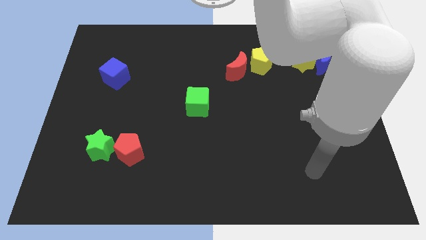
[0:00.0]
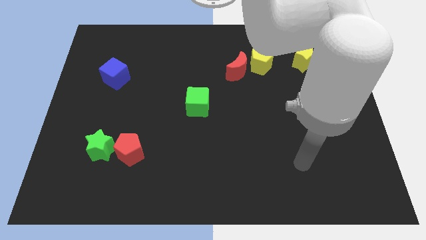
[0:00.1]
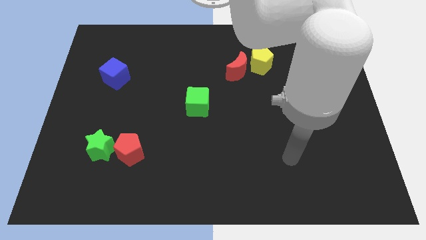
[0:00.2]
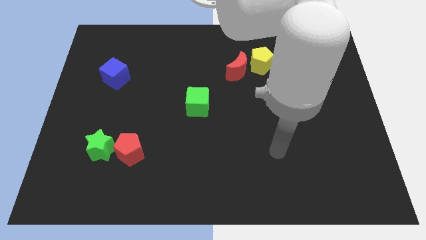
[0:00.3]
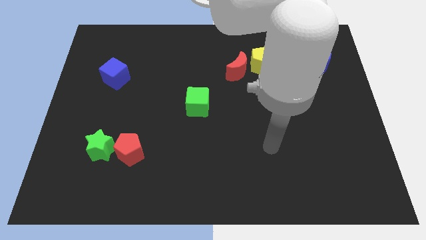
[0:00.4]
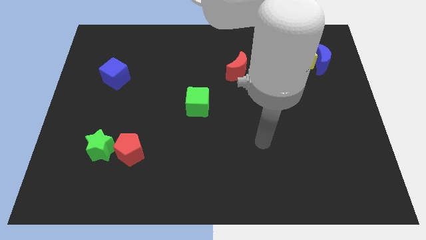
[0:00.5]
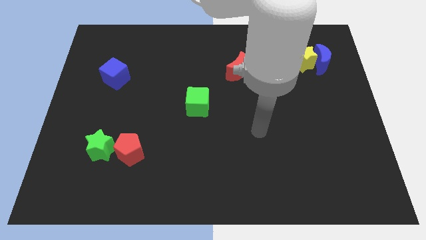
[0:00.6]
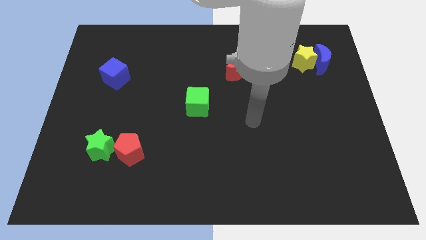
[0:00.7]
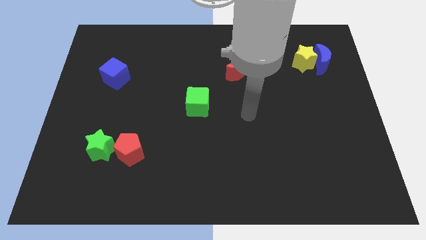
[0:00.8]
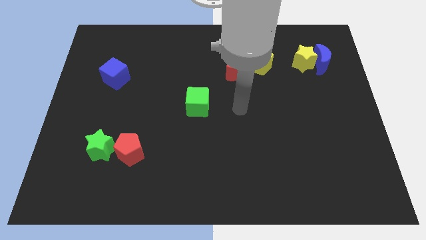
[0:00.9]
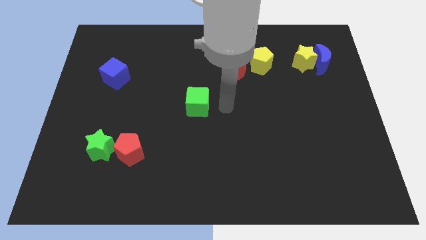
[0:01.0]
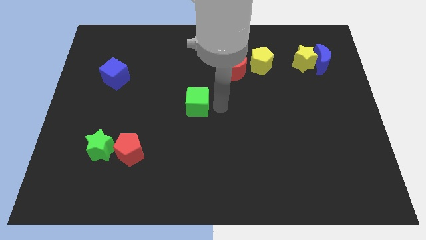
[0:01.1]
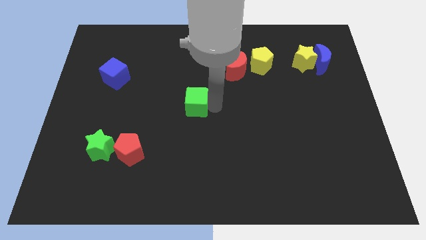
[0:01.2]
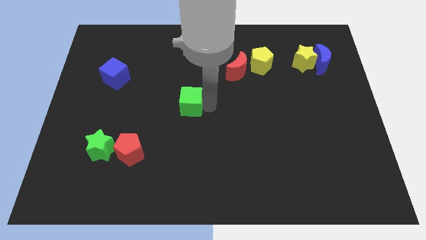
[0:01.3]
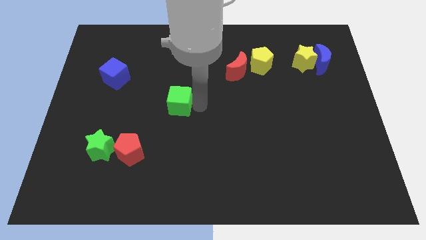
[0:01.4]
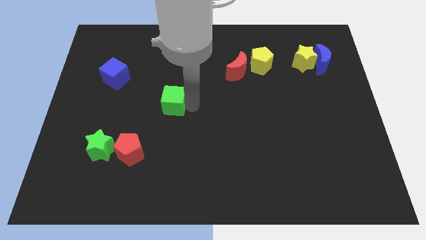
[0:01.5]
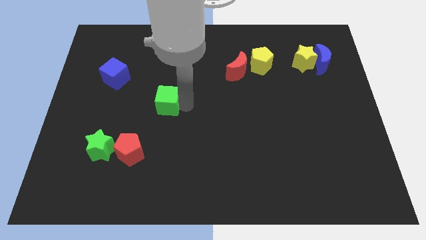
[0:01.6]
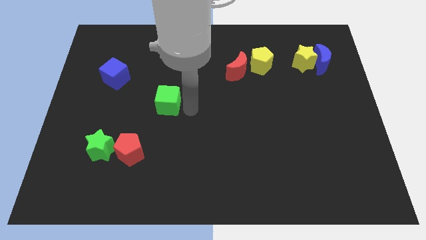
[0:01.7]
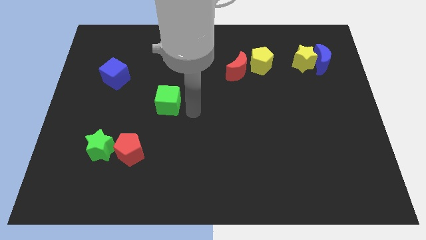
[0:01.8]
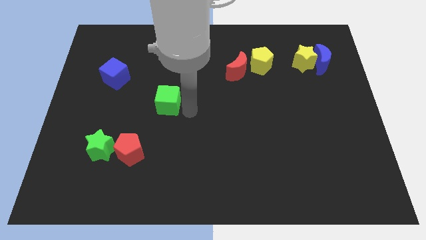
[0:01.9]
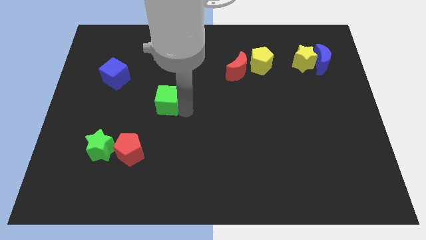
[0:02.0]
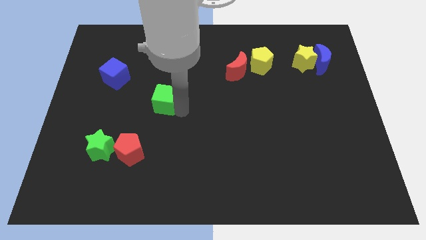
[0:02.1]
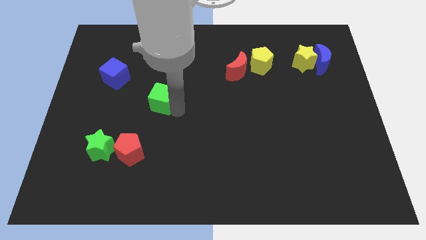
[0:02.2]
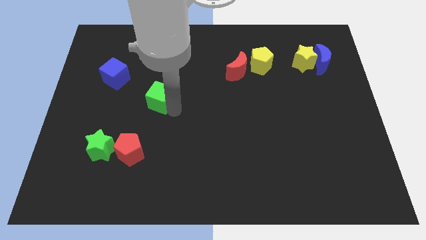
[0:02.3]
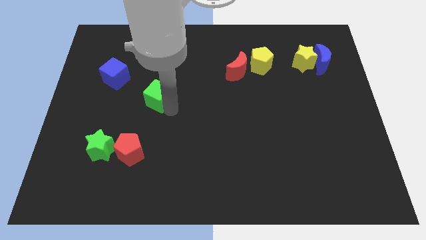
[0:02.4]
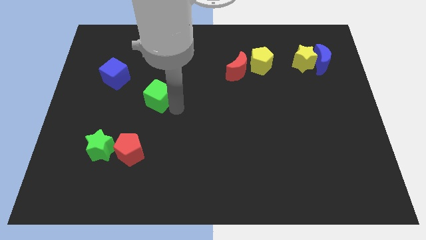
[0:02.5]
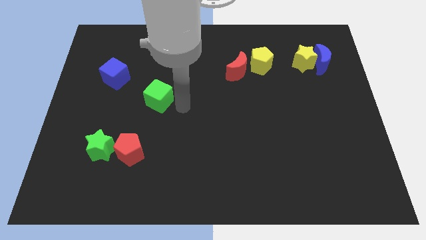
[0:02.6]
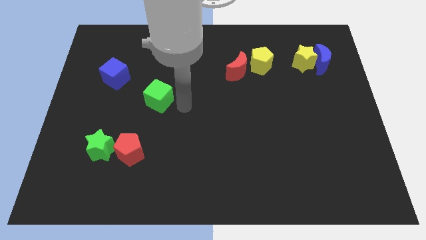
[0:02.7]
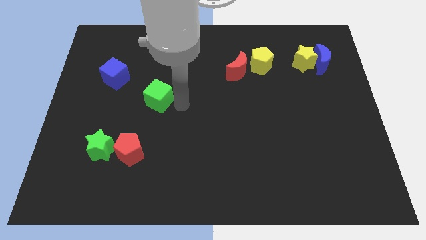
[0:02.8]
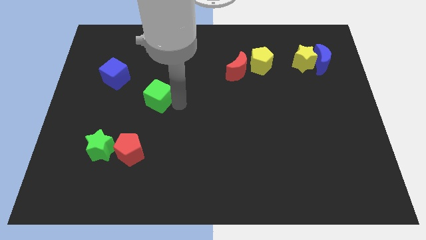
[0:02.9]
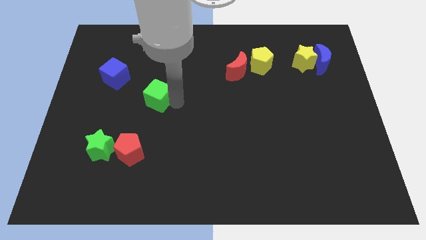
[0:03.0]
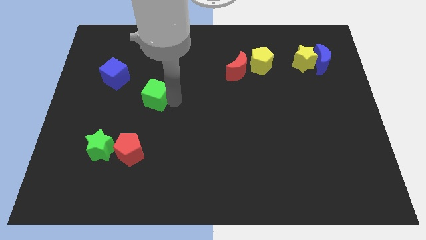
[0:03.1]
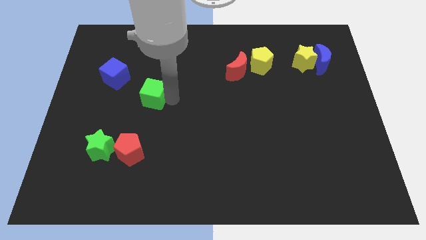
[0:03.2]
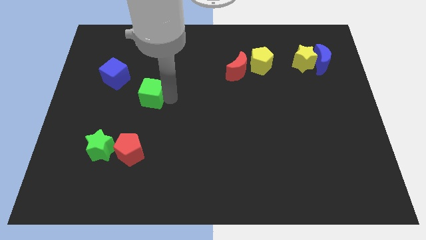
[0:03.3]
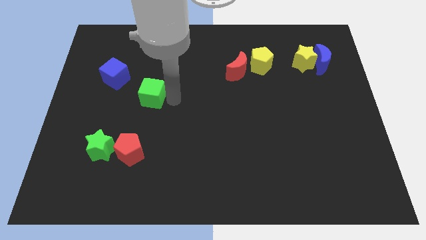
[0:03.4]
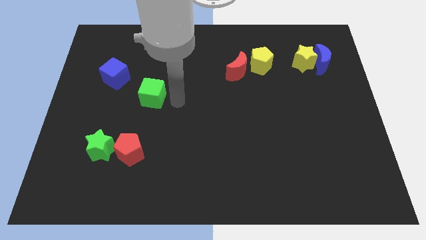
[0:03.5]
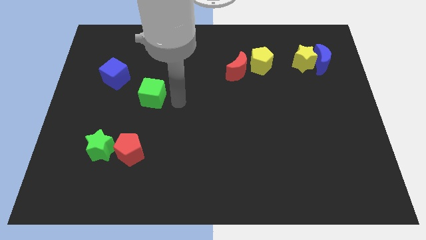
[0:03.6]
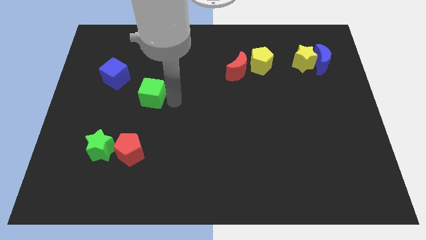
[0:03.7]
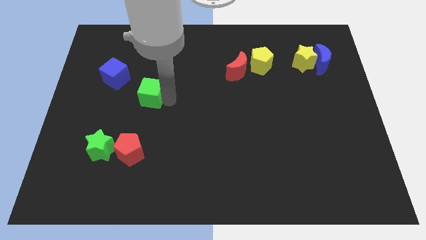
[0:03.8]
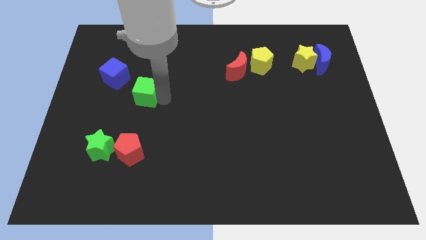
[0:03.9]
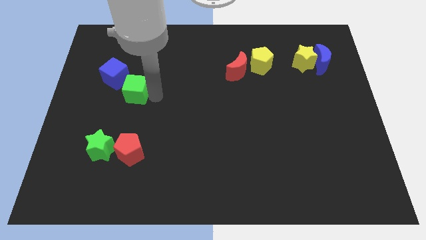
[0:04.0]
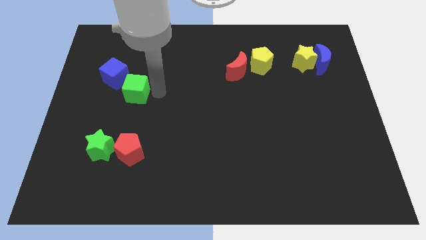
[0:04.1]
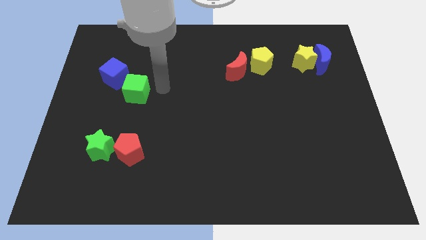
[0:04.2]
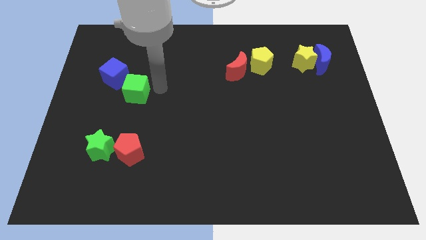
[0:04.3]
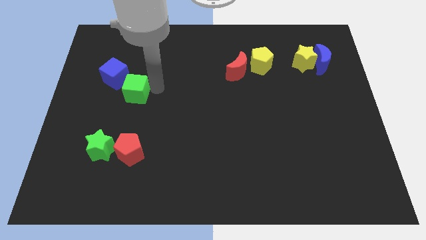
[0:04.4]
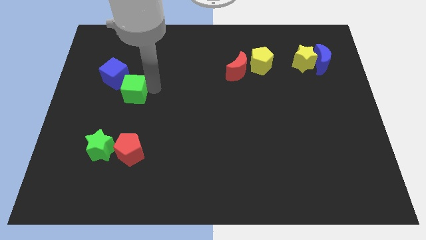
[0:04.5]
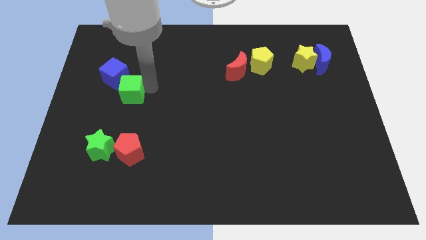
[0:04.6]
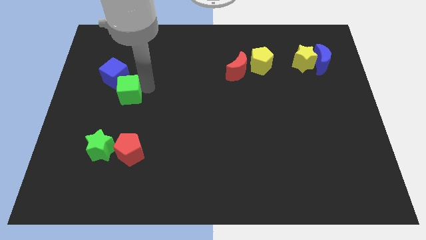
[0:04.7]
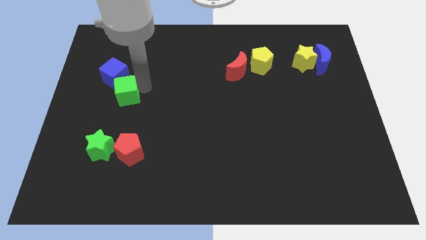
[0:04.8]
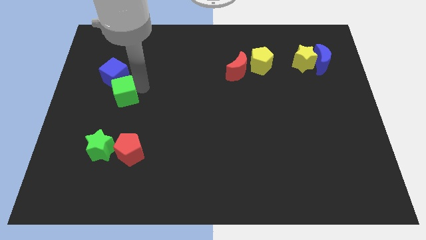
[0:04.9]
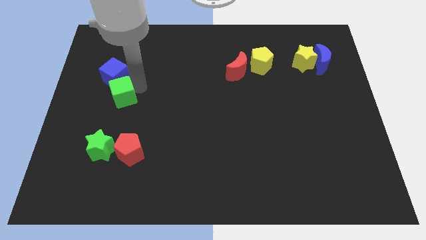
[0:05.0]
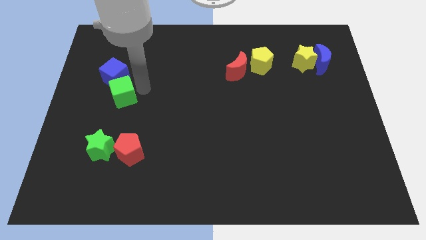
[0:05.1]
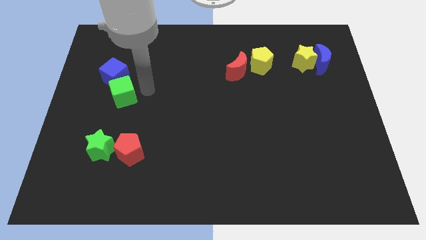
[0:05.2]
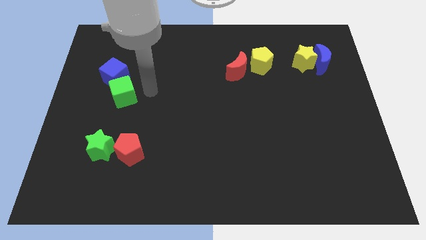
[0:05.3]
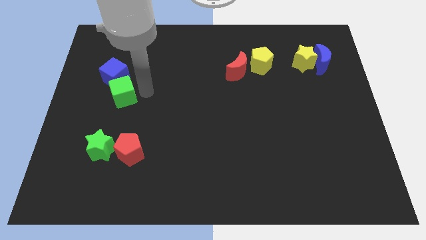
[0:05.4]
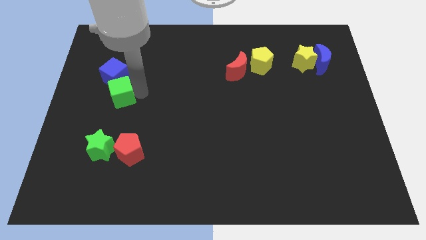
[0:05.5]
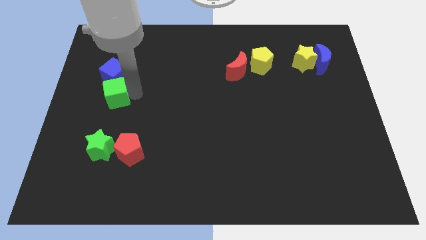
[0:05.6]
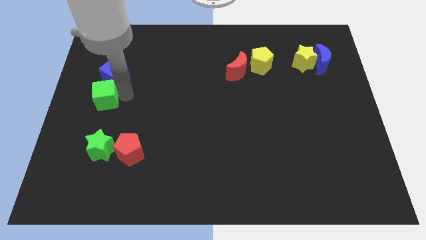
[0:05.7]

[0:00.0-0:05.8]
move the green cube to the left side

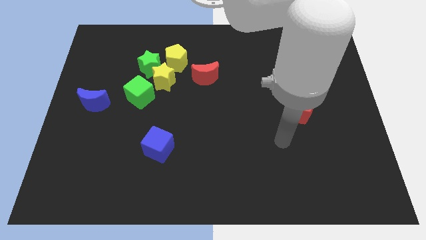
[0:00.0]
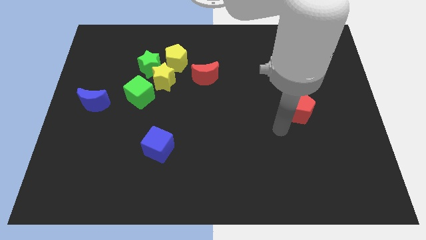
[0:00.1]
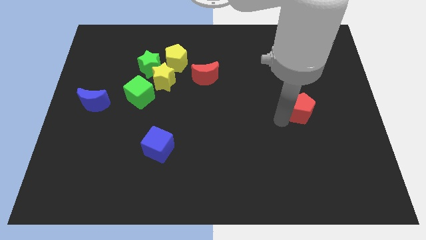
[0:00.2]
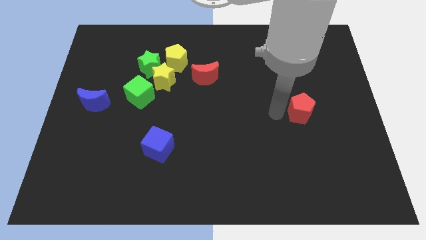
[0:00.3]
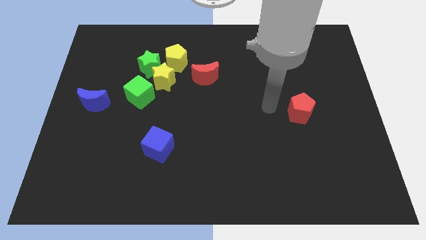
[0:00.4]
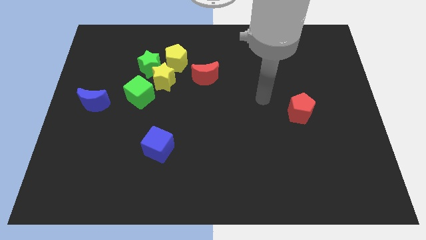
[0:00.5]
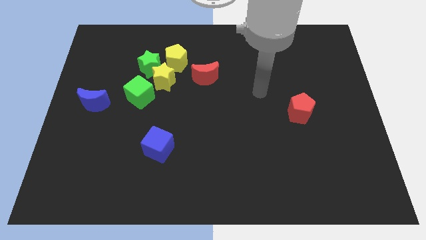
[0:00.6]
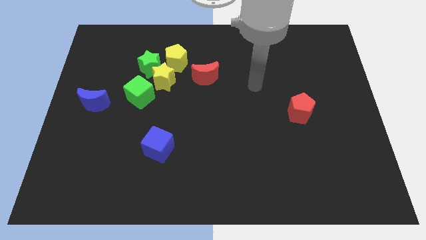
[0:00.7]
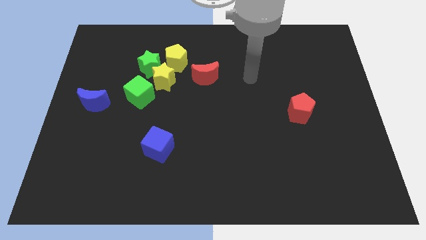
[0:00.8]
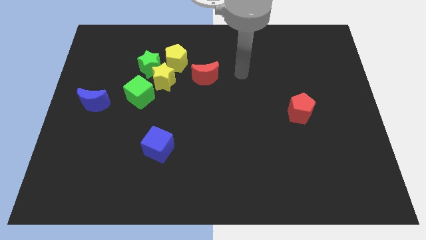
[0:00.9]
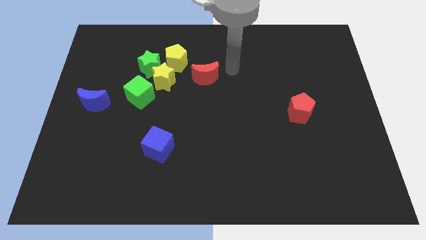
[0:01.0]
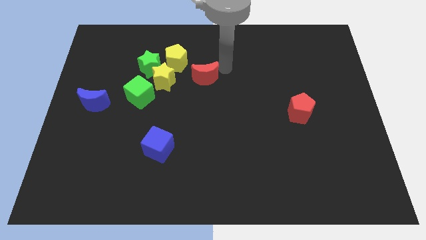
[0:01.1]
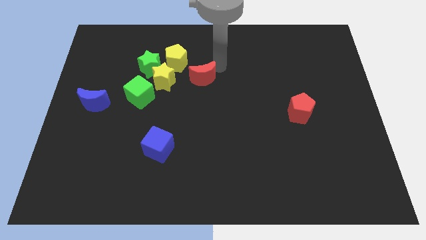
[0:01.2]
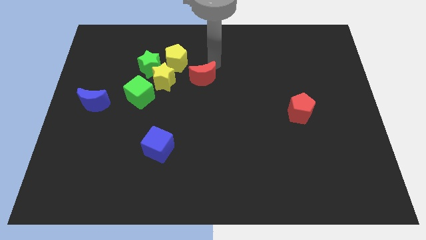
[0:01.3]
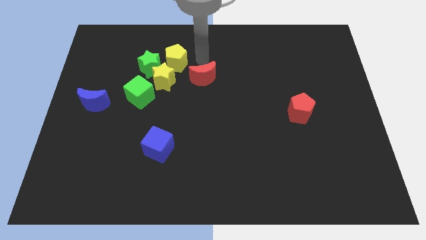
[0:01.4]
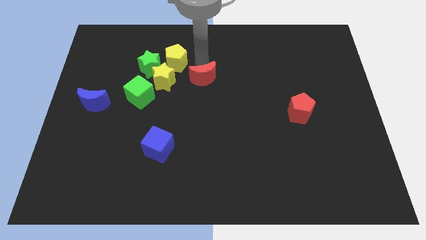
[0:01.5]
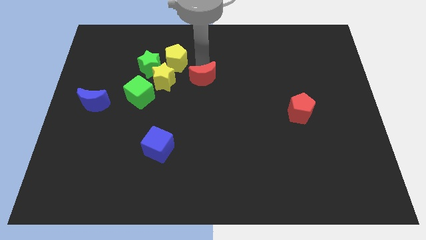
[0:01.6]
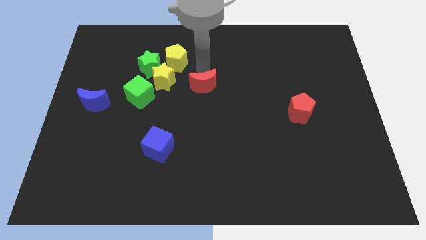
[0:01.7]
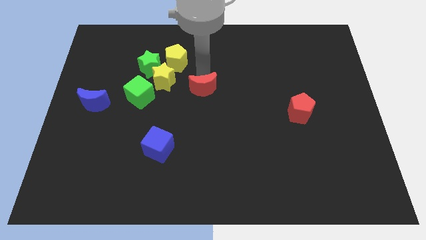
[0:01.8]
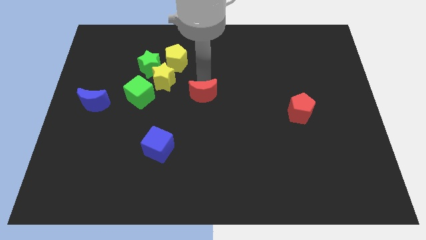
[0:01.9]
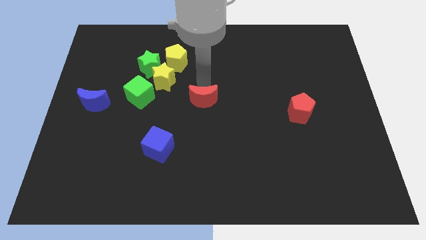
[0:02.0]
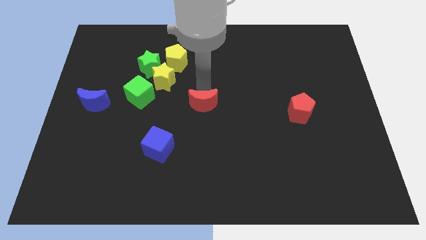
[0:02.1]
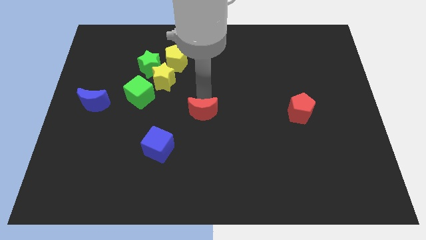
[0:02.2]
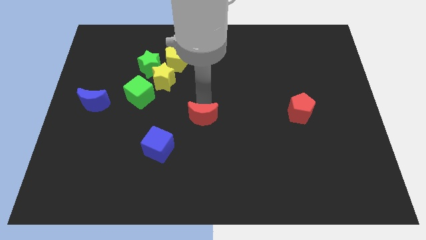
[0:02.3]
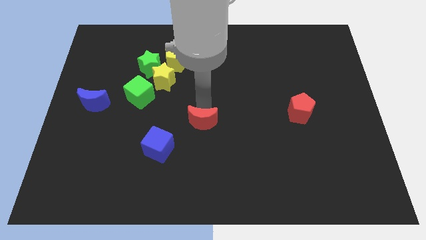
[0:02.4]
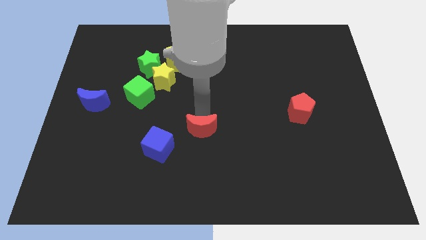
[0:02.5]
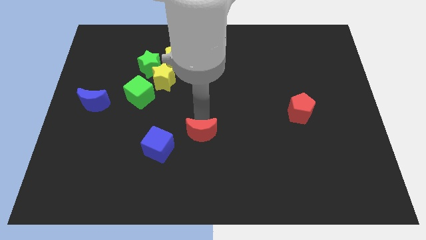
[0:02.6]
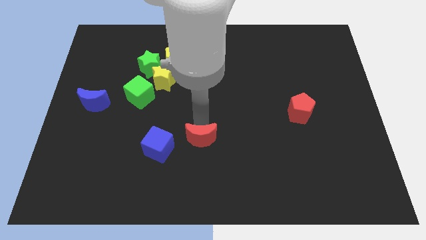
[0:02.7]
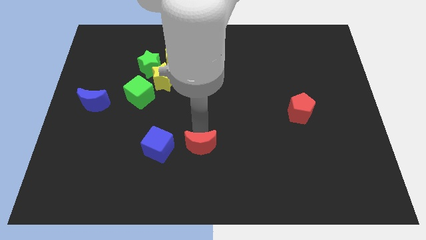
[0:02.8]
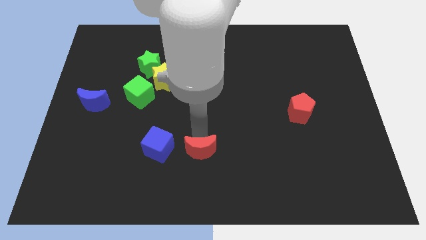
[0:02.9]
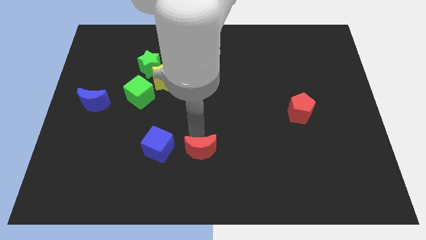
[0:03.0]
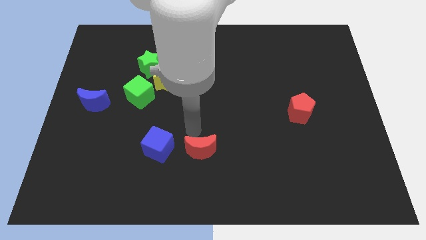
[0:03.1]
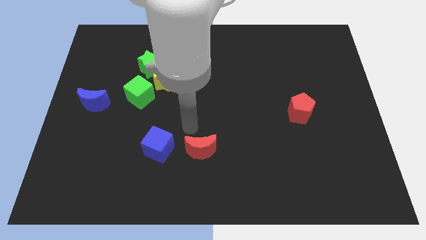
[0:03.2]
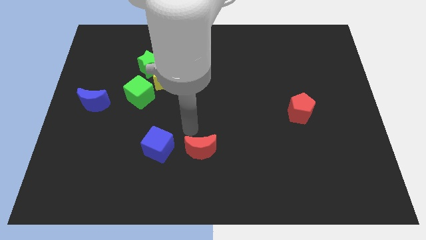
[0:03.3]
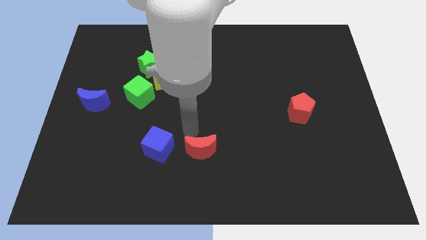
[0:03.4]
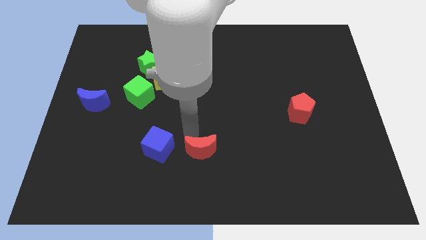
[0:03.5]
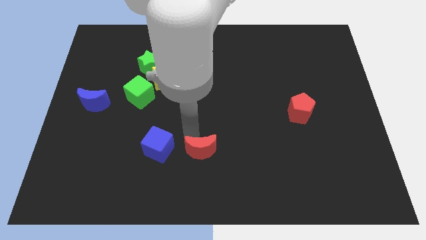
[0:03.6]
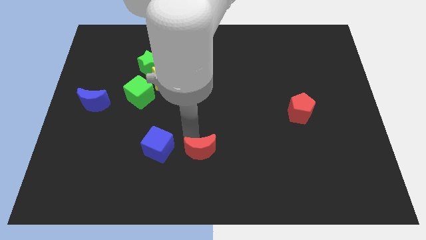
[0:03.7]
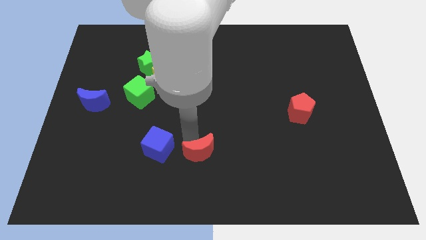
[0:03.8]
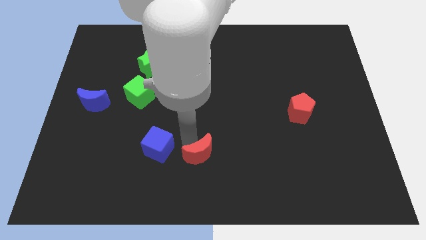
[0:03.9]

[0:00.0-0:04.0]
put the red moon to the bottom side
